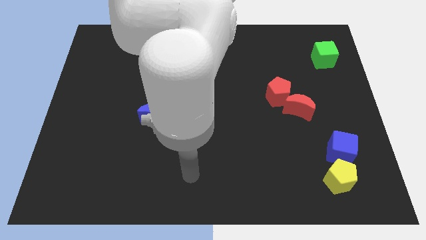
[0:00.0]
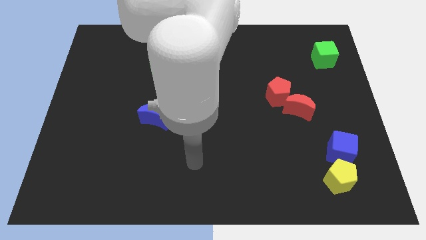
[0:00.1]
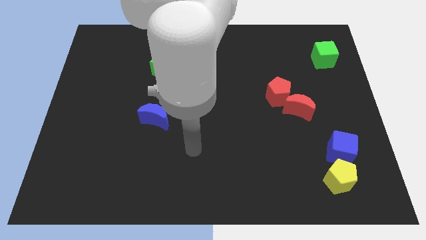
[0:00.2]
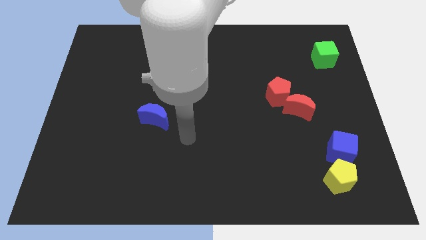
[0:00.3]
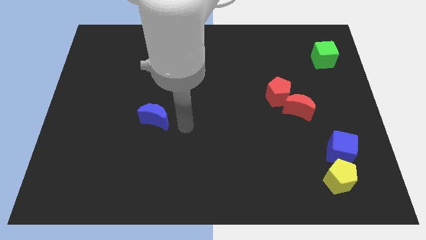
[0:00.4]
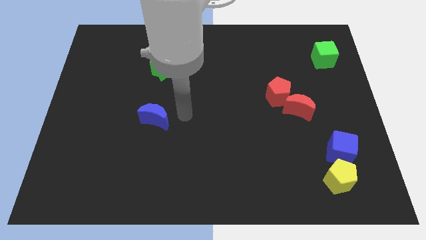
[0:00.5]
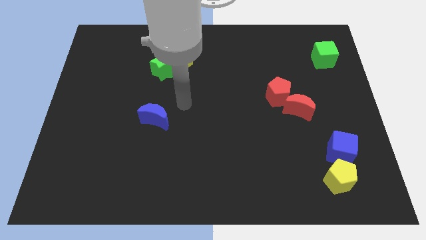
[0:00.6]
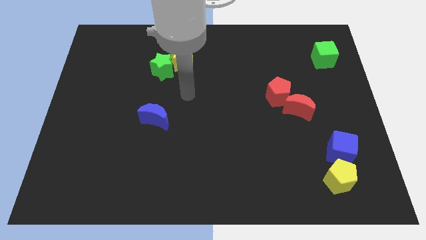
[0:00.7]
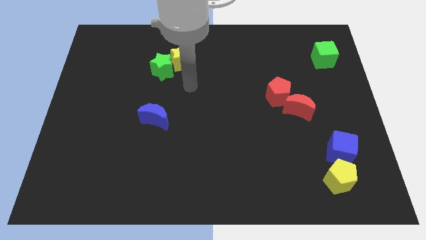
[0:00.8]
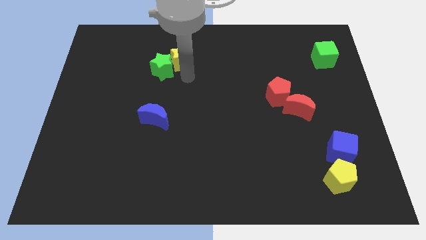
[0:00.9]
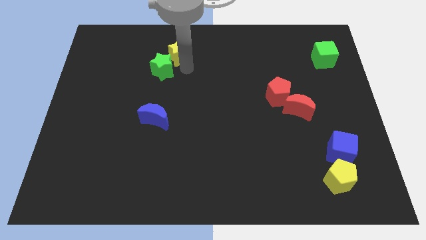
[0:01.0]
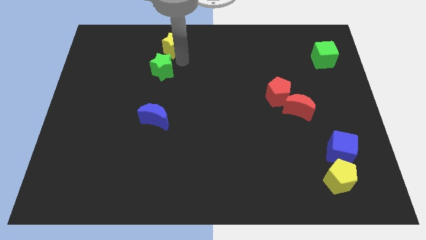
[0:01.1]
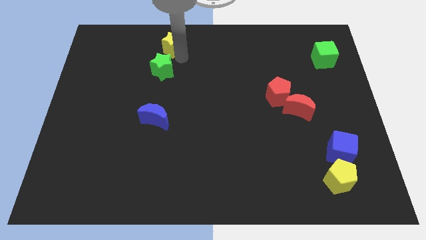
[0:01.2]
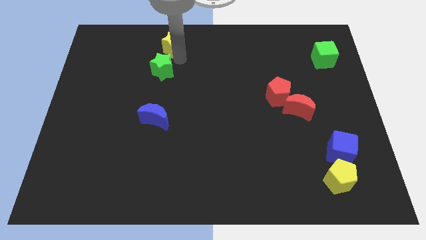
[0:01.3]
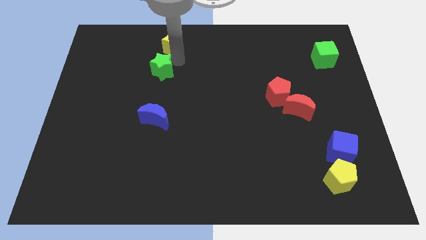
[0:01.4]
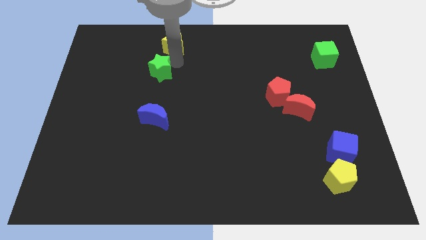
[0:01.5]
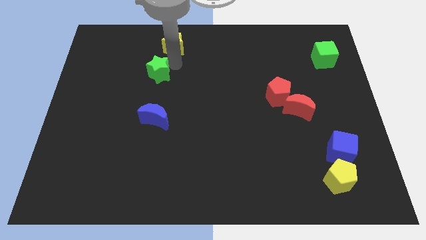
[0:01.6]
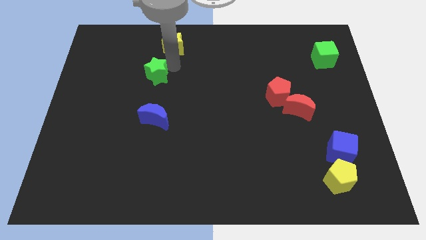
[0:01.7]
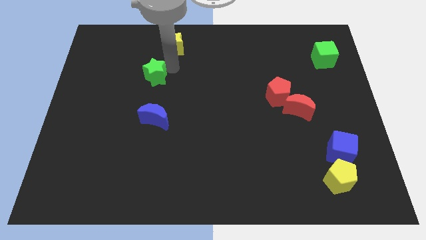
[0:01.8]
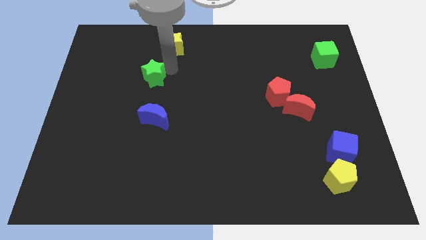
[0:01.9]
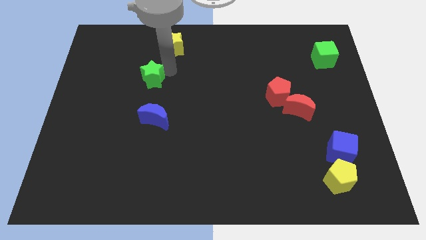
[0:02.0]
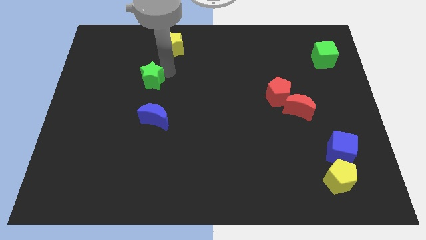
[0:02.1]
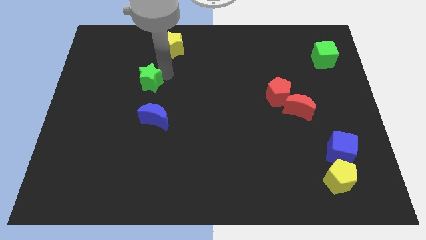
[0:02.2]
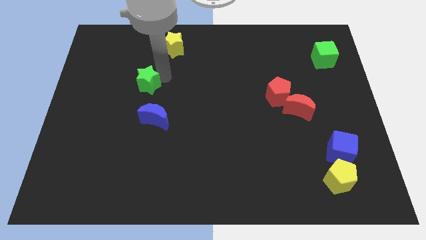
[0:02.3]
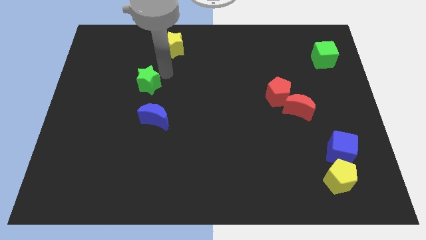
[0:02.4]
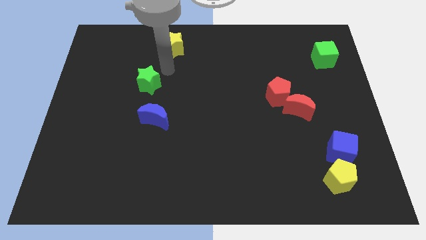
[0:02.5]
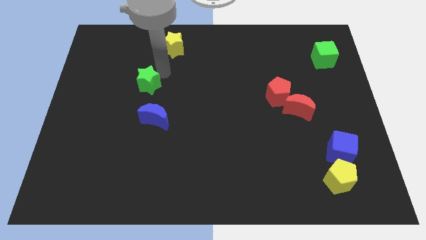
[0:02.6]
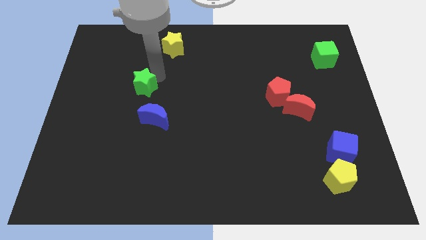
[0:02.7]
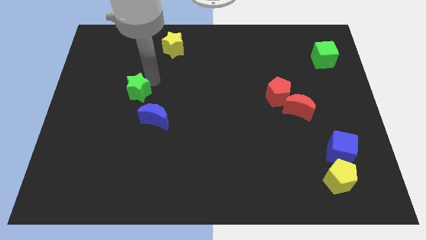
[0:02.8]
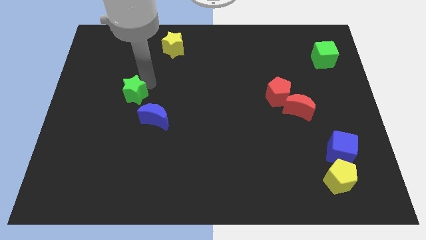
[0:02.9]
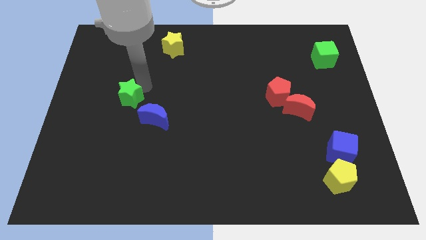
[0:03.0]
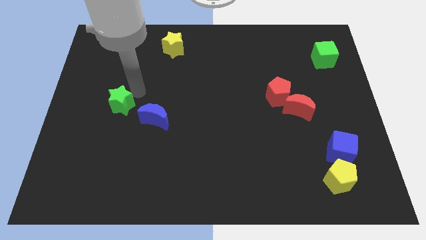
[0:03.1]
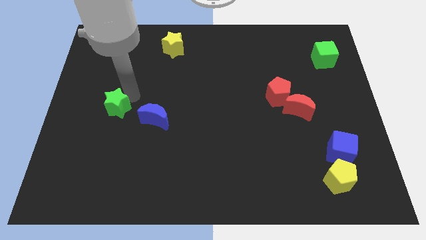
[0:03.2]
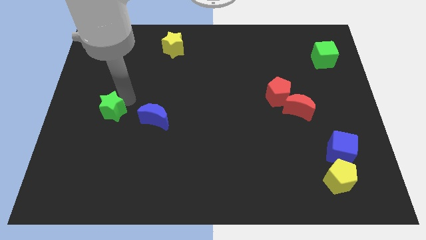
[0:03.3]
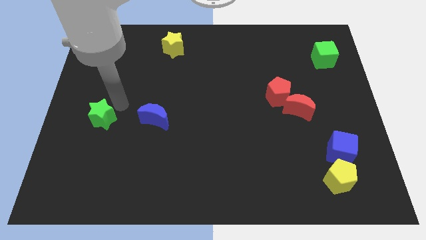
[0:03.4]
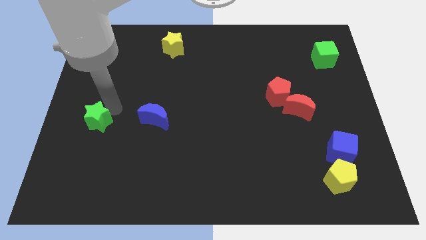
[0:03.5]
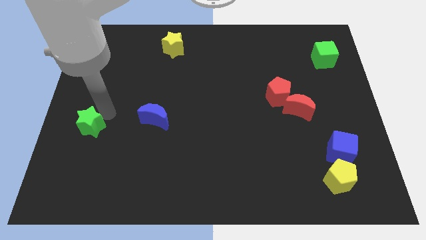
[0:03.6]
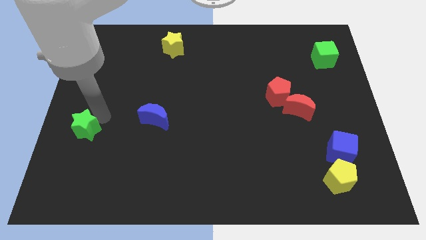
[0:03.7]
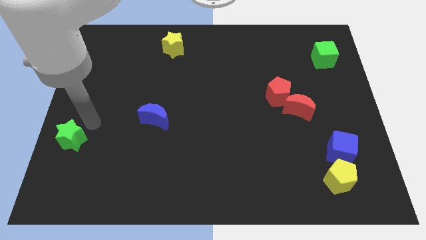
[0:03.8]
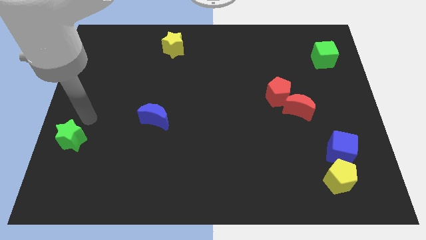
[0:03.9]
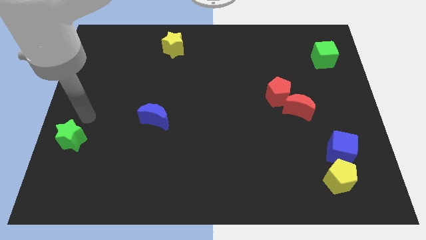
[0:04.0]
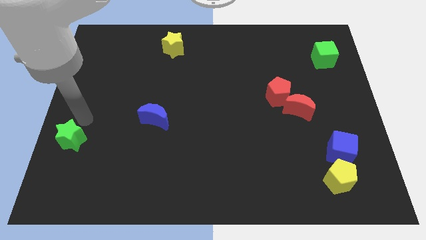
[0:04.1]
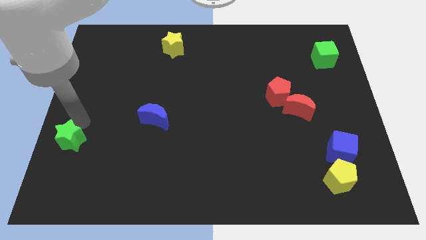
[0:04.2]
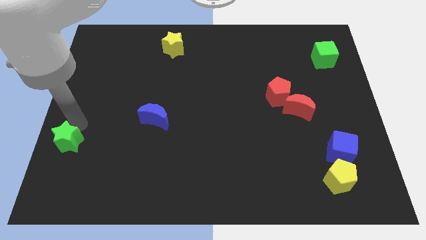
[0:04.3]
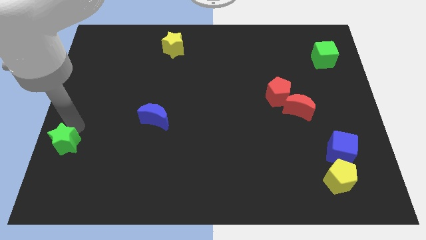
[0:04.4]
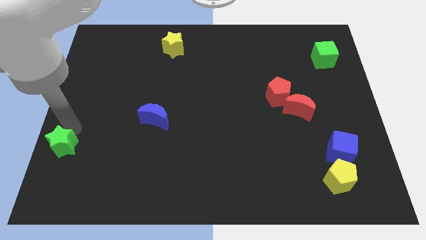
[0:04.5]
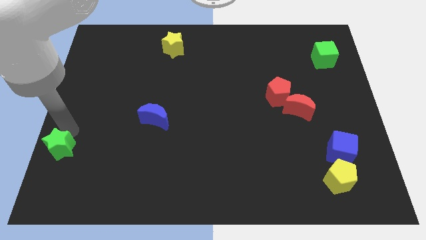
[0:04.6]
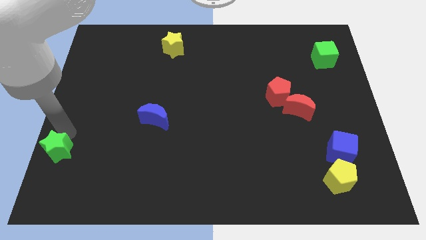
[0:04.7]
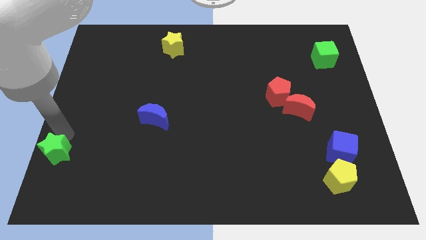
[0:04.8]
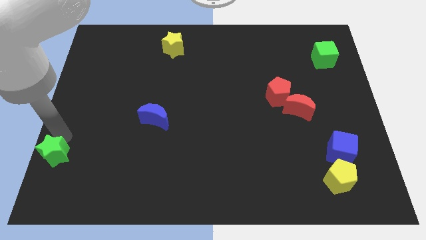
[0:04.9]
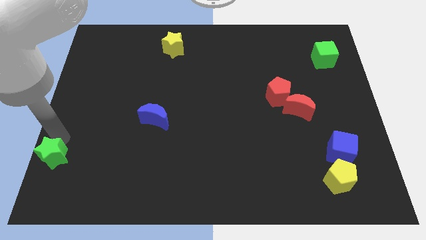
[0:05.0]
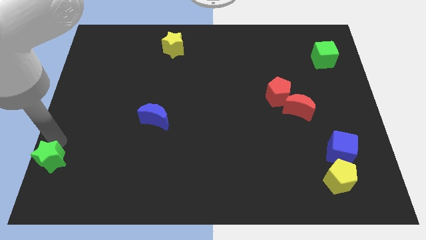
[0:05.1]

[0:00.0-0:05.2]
move the green star to the lower left corner

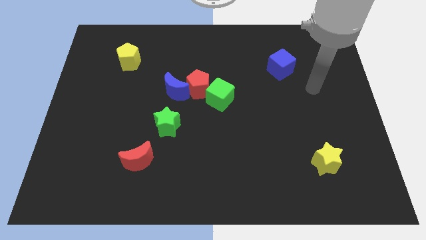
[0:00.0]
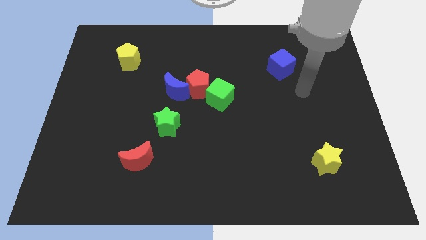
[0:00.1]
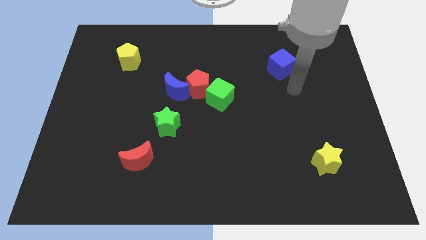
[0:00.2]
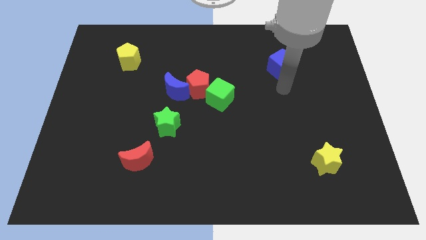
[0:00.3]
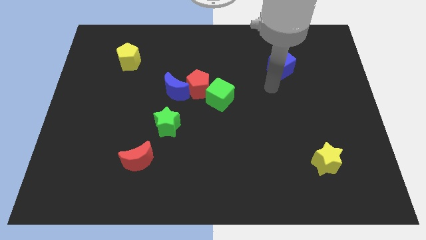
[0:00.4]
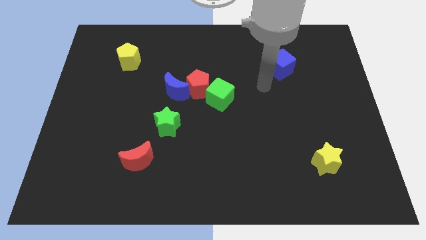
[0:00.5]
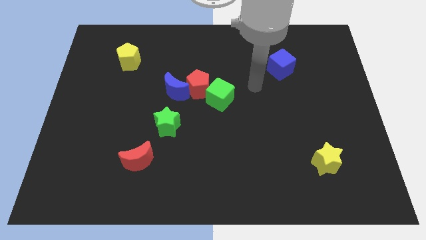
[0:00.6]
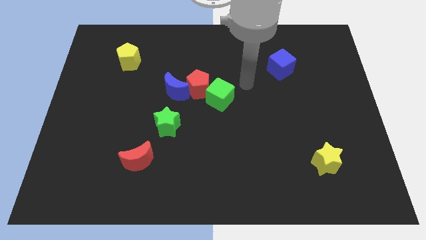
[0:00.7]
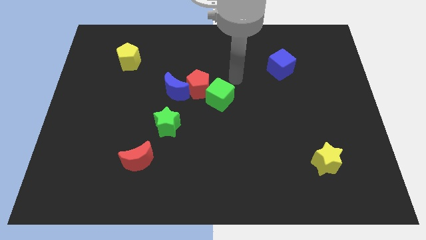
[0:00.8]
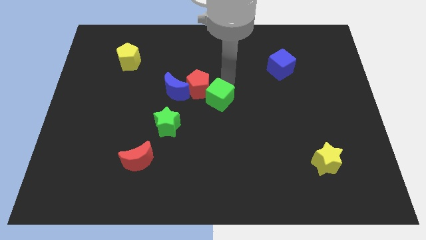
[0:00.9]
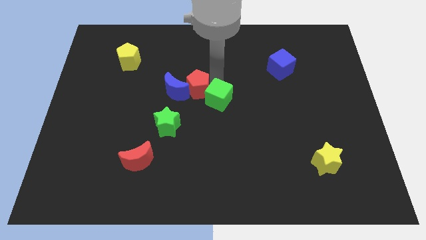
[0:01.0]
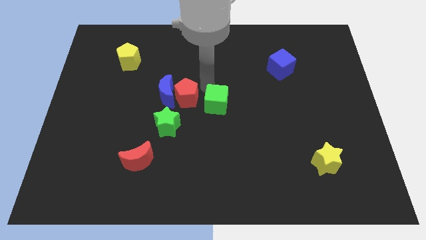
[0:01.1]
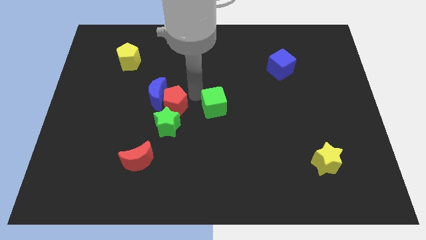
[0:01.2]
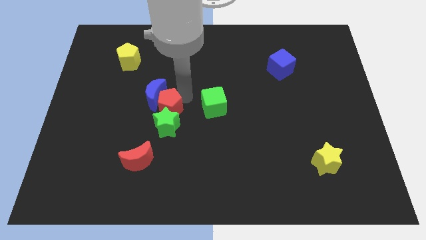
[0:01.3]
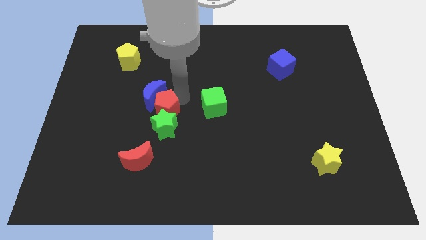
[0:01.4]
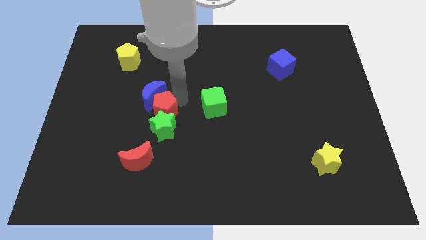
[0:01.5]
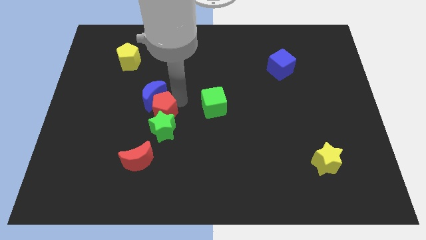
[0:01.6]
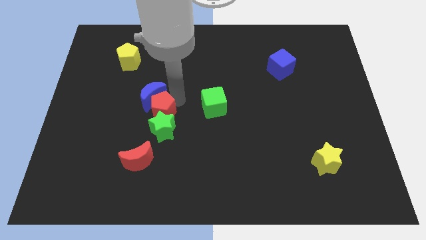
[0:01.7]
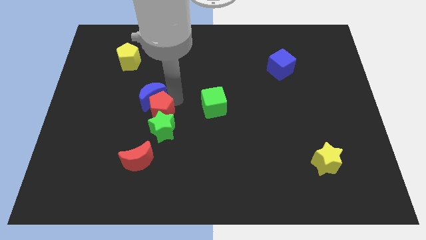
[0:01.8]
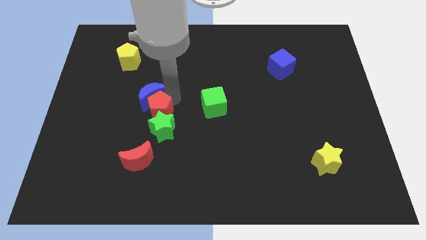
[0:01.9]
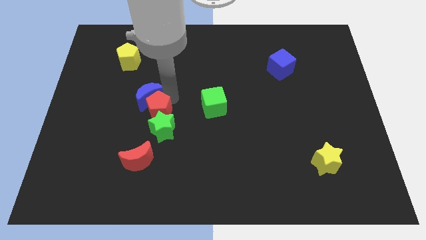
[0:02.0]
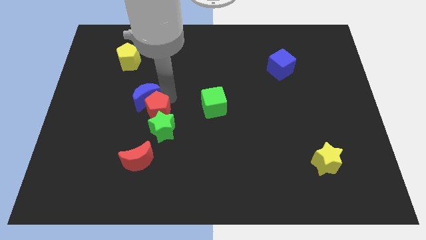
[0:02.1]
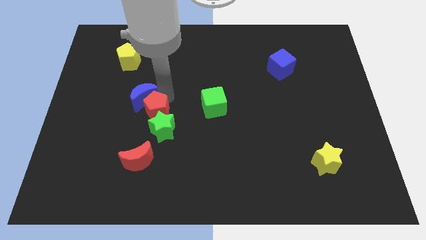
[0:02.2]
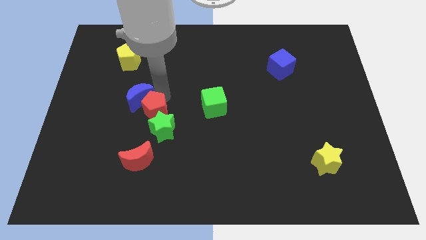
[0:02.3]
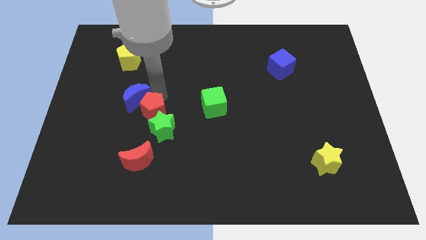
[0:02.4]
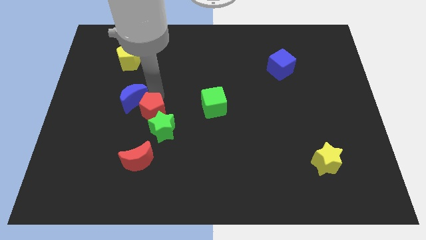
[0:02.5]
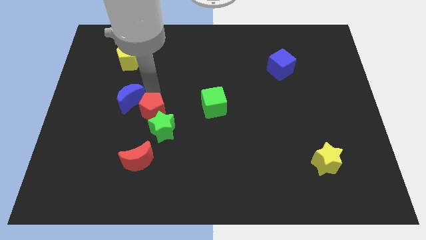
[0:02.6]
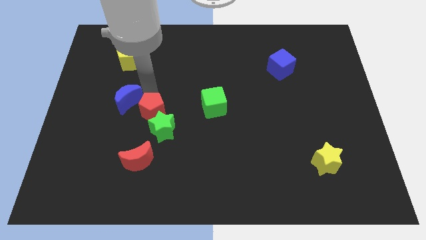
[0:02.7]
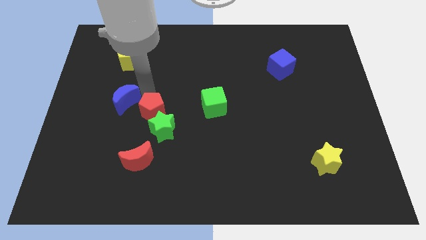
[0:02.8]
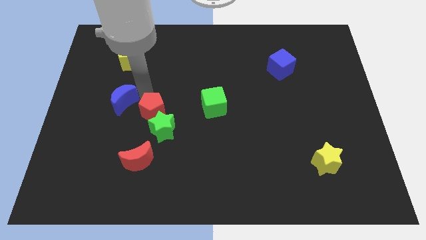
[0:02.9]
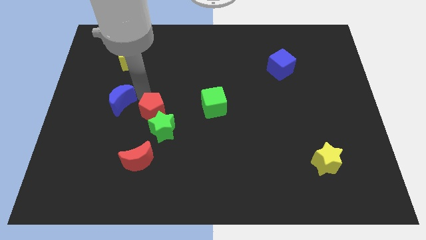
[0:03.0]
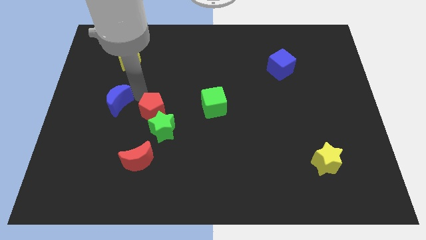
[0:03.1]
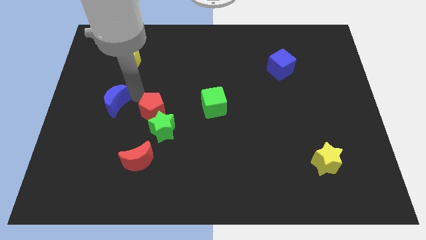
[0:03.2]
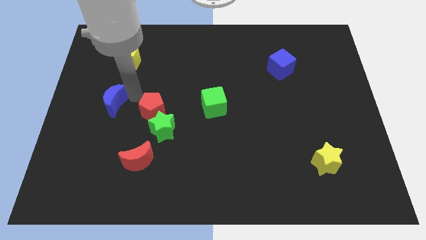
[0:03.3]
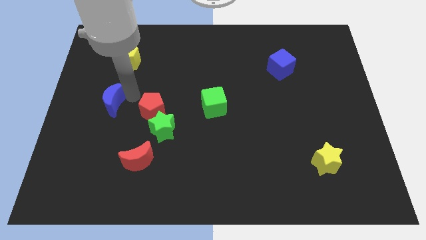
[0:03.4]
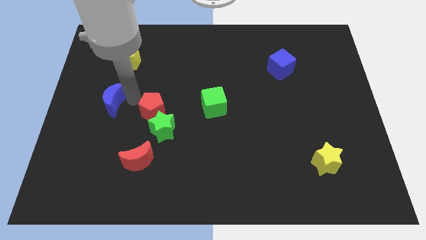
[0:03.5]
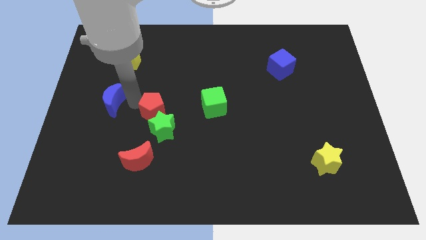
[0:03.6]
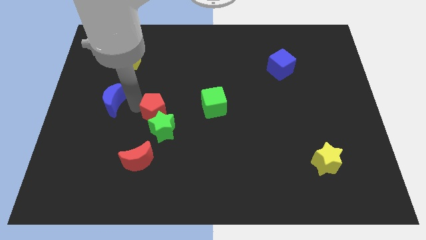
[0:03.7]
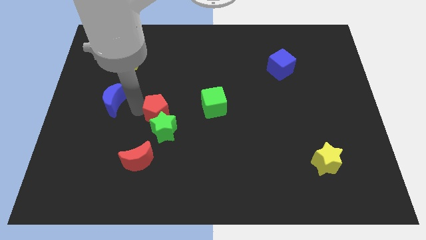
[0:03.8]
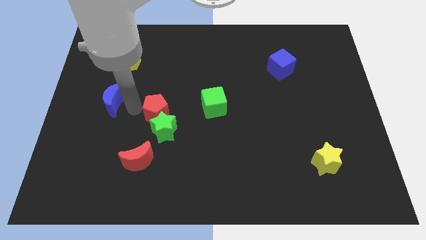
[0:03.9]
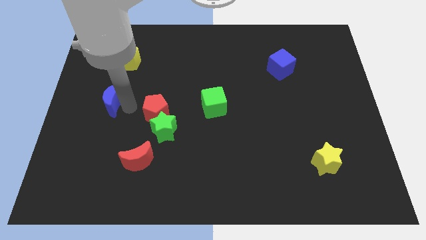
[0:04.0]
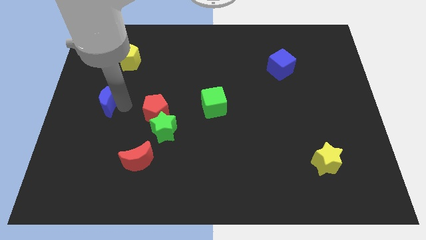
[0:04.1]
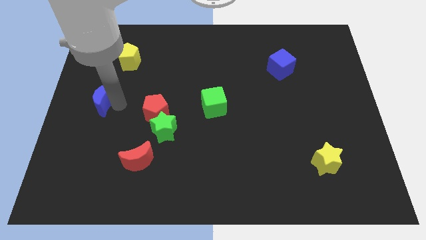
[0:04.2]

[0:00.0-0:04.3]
push the blue moon to the left side
